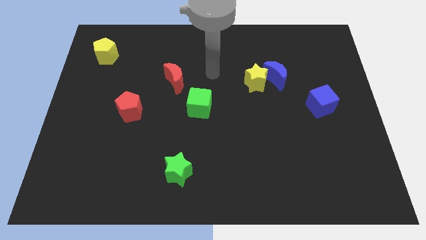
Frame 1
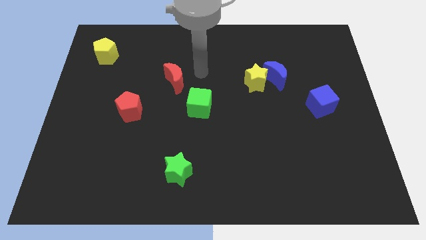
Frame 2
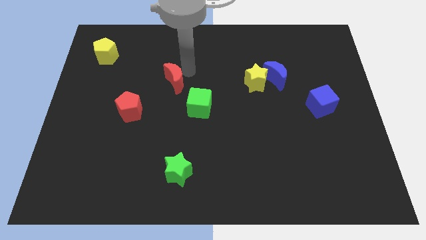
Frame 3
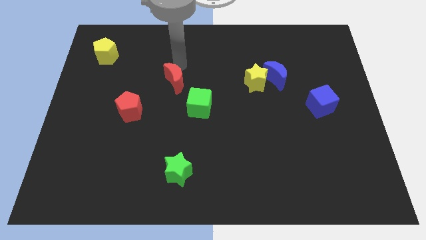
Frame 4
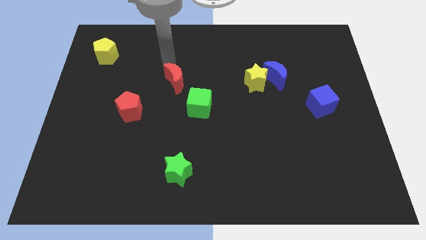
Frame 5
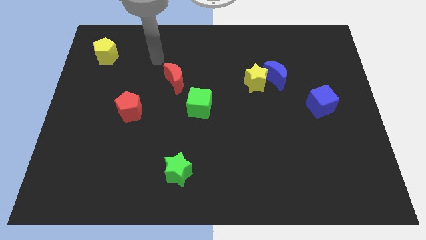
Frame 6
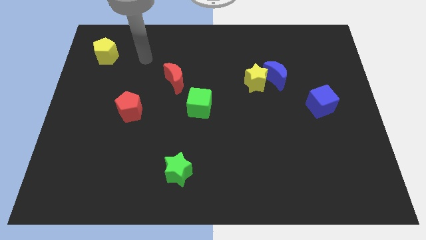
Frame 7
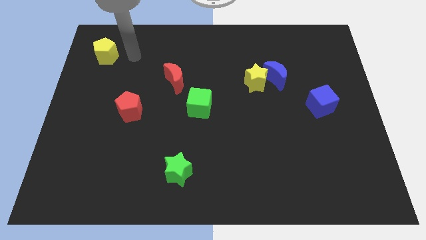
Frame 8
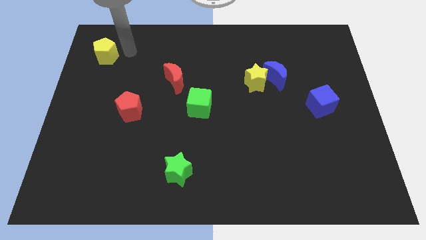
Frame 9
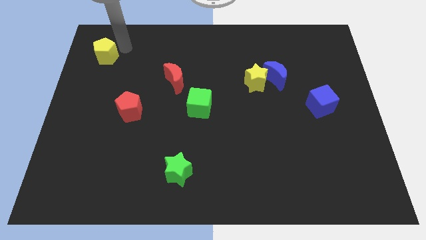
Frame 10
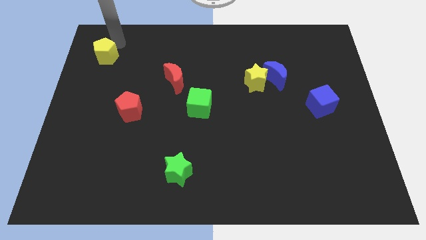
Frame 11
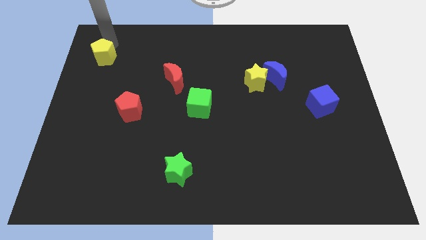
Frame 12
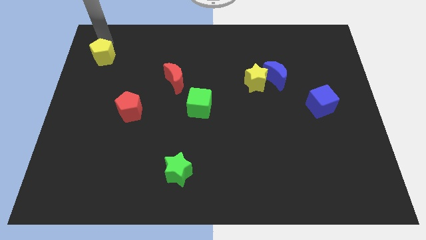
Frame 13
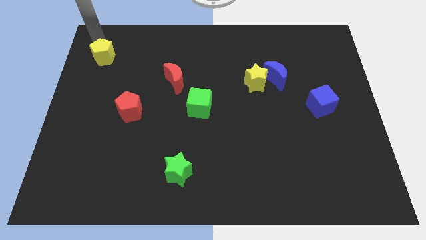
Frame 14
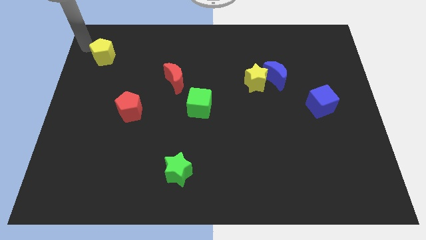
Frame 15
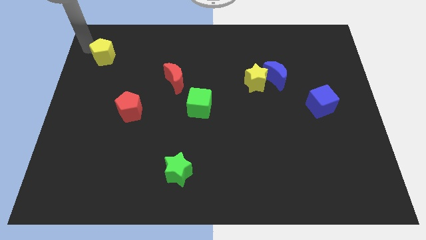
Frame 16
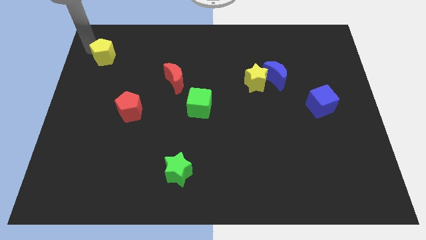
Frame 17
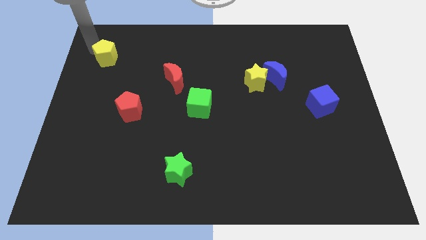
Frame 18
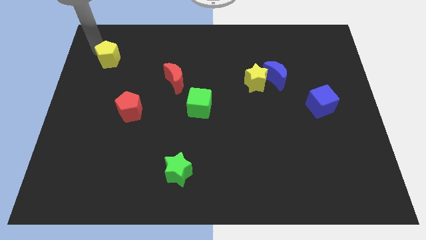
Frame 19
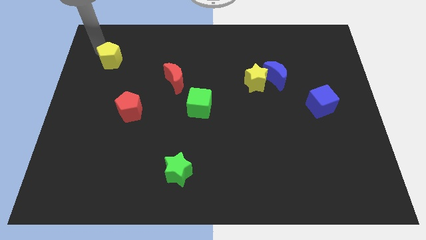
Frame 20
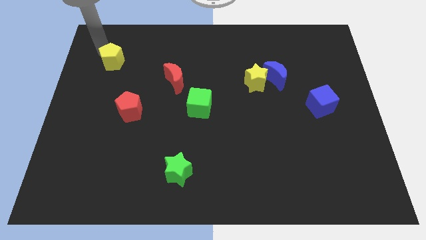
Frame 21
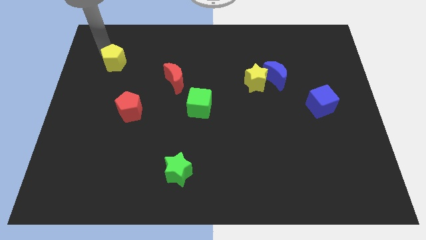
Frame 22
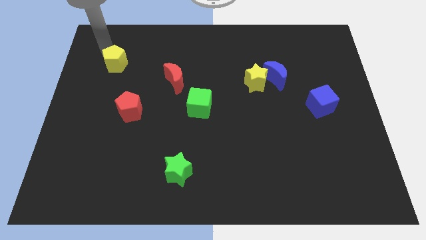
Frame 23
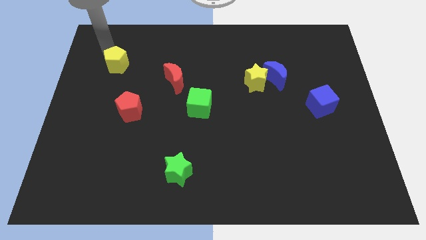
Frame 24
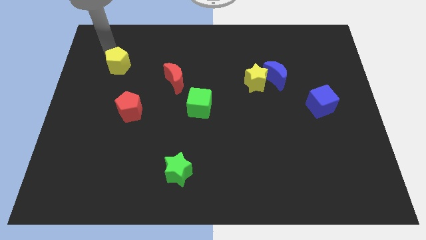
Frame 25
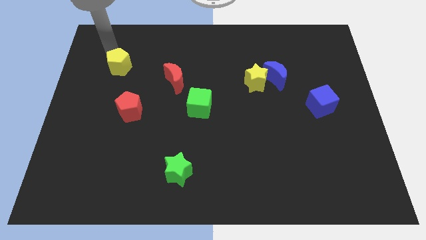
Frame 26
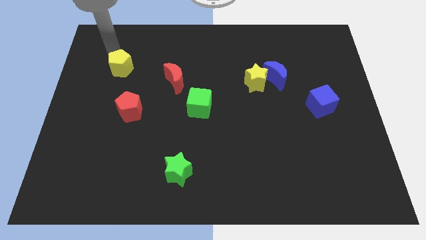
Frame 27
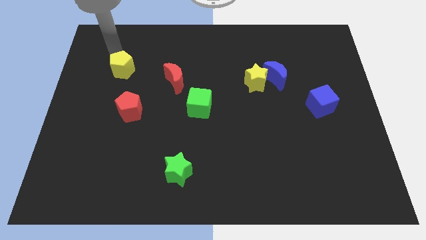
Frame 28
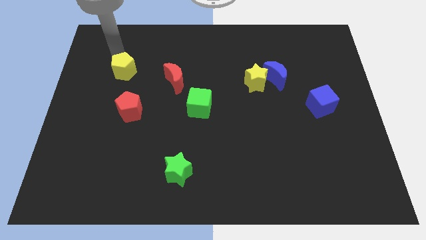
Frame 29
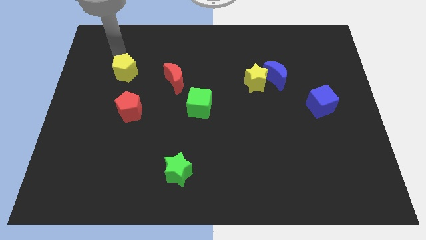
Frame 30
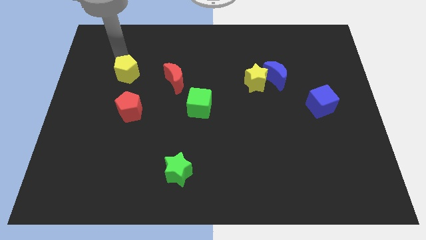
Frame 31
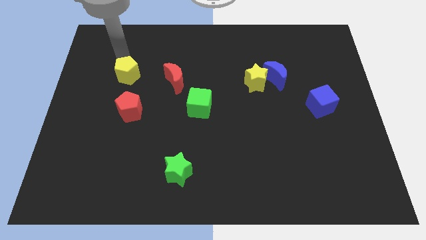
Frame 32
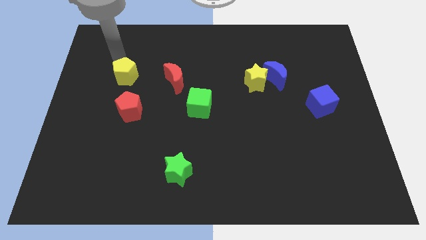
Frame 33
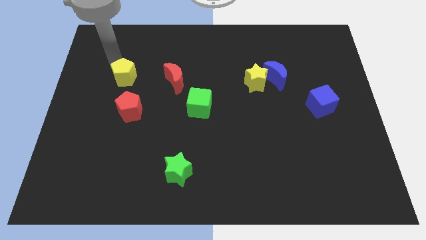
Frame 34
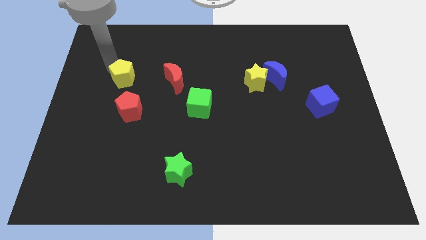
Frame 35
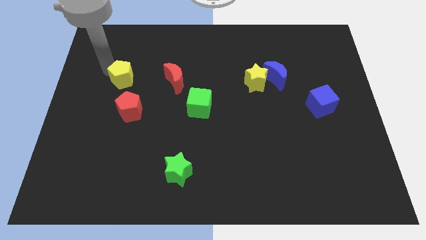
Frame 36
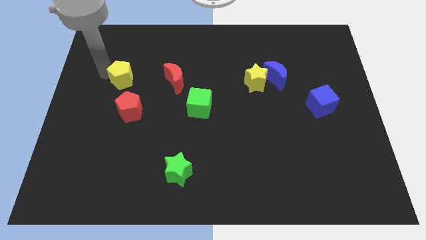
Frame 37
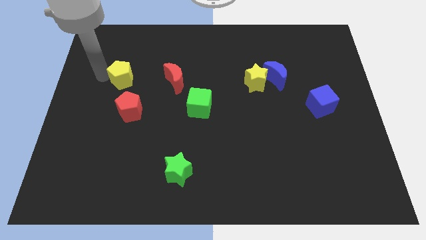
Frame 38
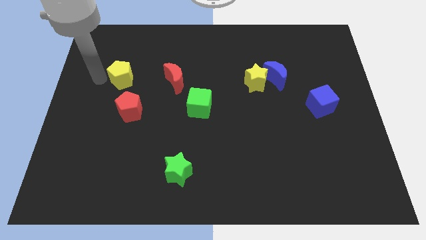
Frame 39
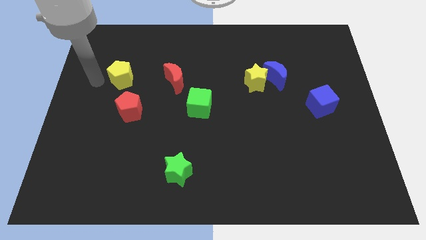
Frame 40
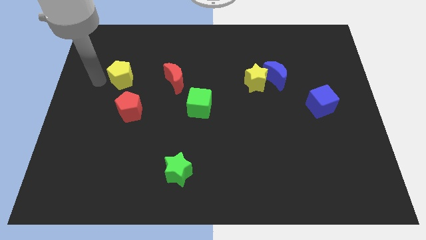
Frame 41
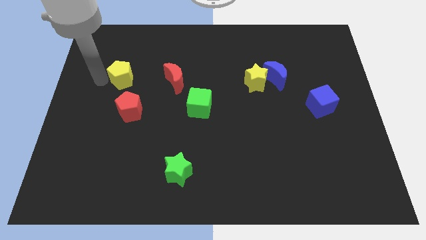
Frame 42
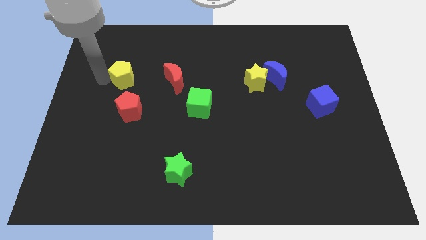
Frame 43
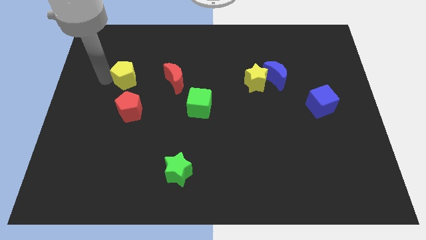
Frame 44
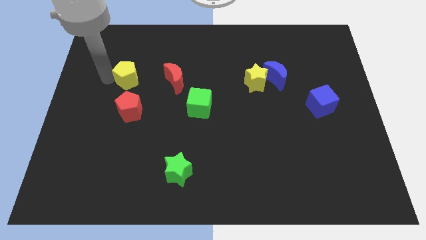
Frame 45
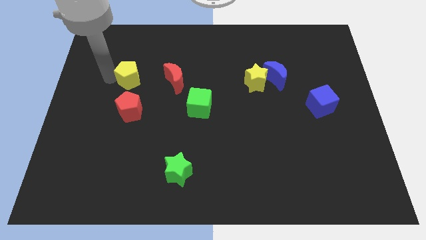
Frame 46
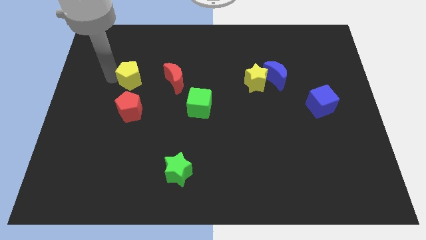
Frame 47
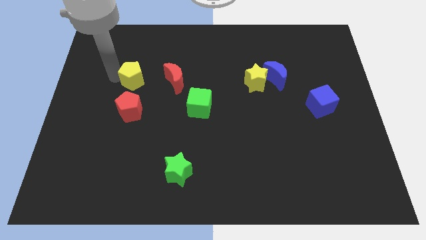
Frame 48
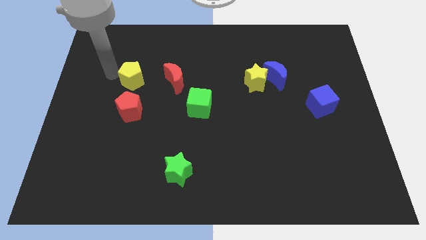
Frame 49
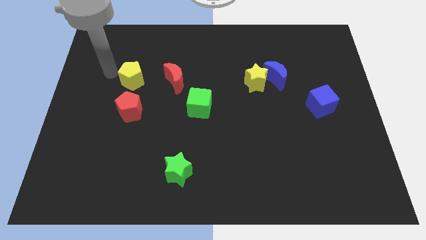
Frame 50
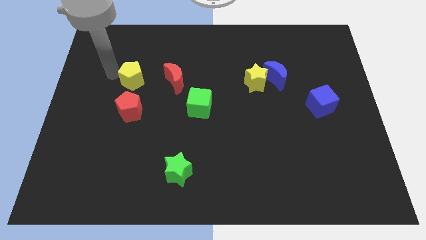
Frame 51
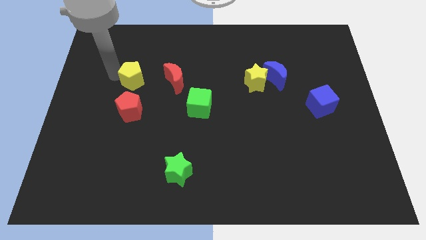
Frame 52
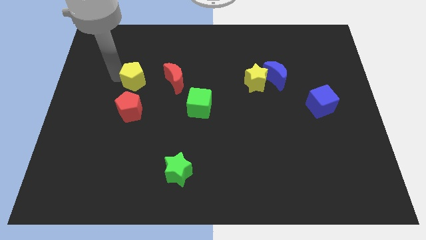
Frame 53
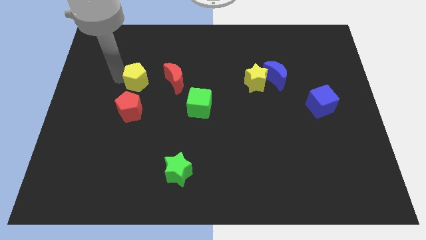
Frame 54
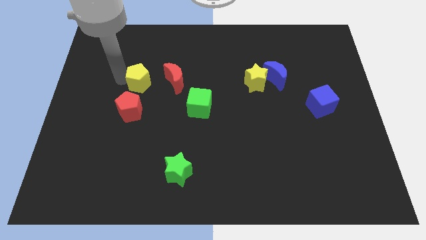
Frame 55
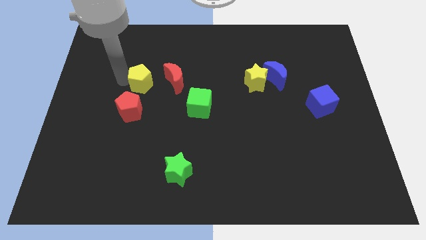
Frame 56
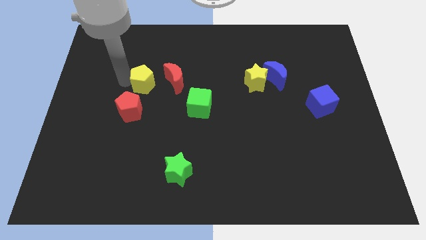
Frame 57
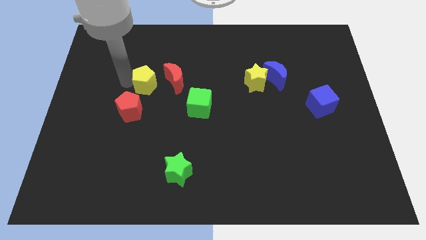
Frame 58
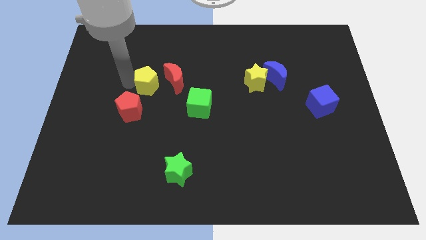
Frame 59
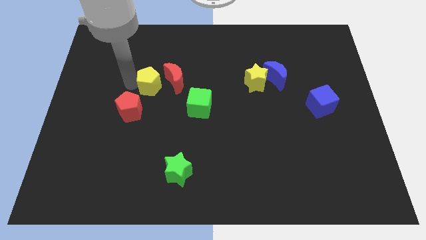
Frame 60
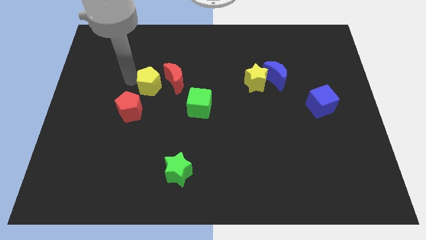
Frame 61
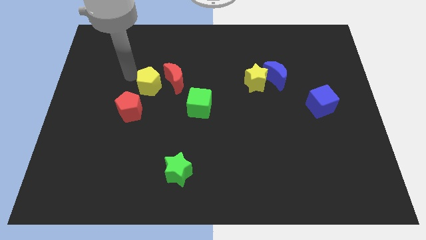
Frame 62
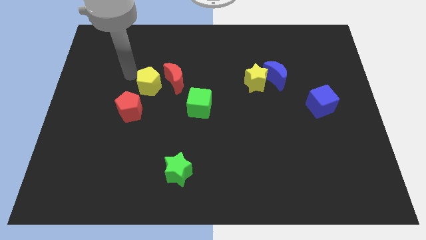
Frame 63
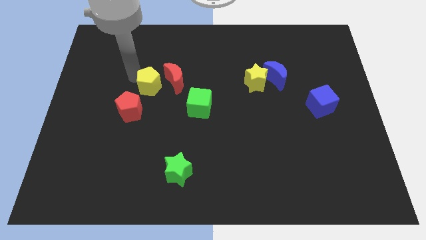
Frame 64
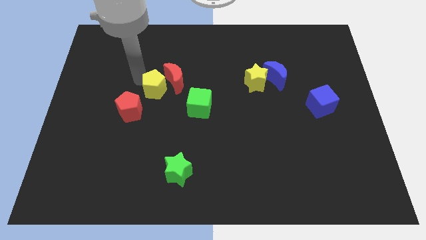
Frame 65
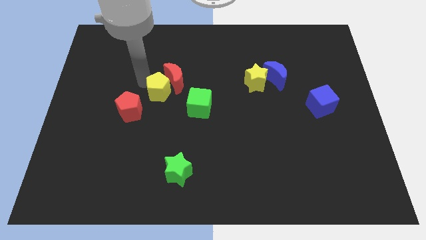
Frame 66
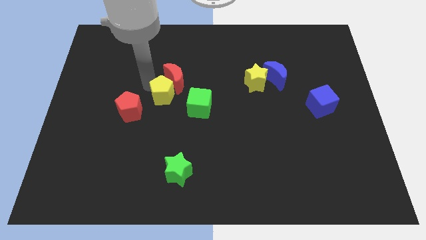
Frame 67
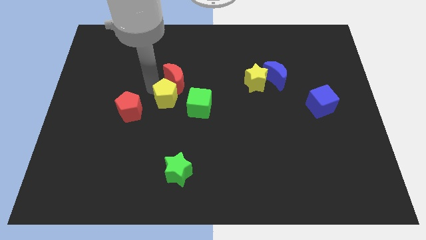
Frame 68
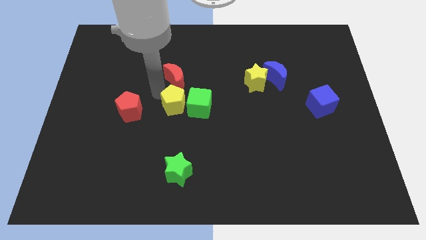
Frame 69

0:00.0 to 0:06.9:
put the yellow pentagon next to the green cube

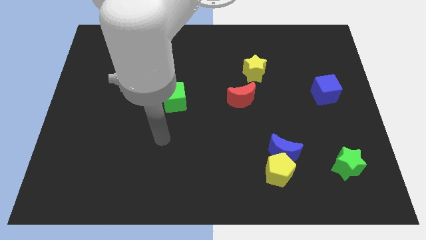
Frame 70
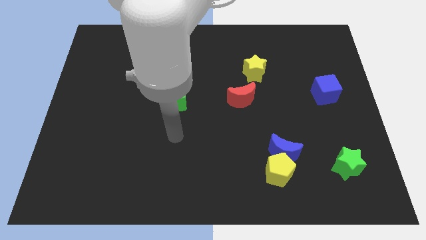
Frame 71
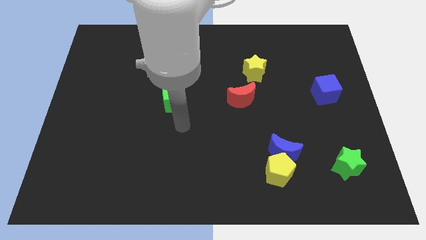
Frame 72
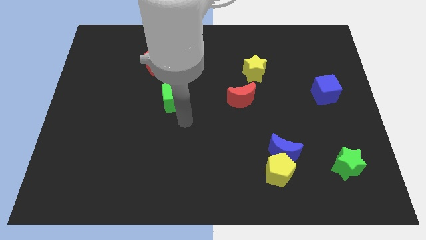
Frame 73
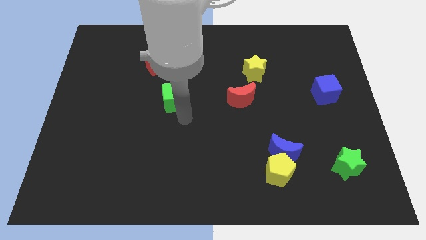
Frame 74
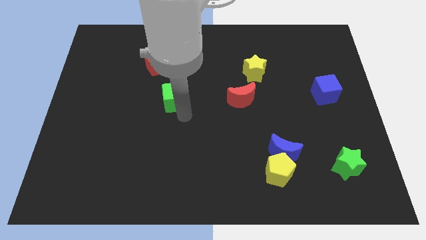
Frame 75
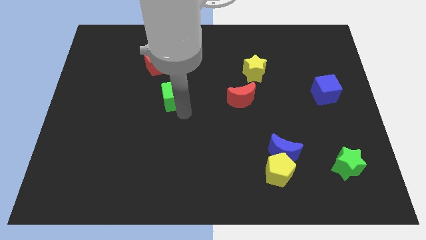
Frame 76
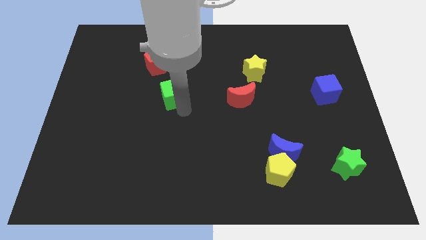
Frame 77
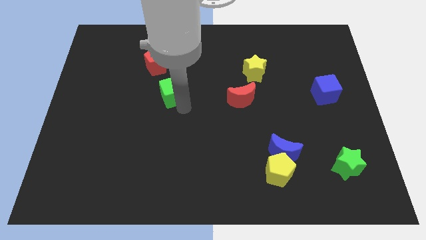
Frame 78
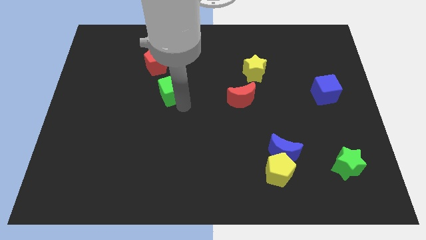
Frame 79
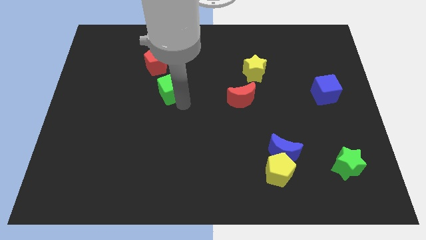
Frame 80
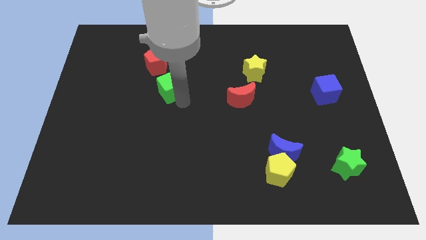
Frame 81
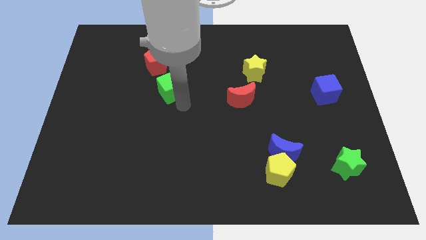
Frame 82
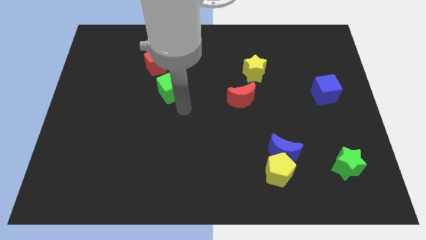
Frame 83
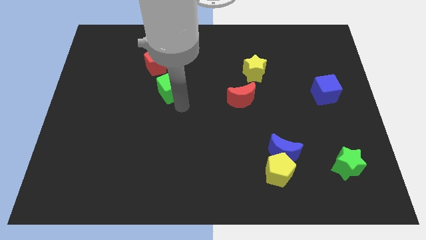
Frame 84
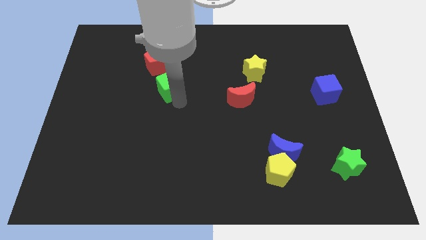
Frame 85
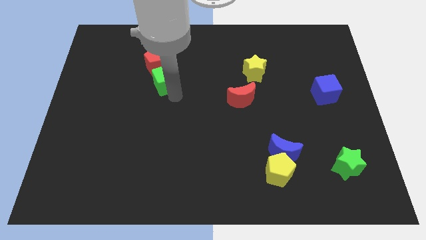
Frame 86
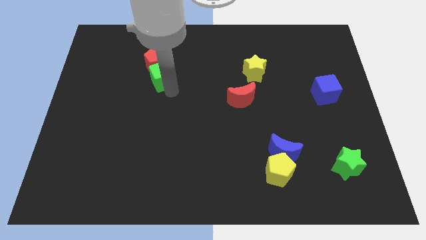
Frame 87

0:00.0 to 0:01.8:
put the green cube towards the red pentagon
